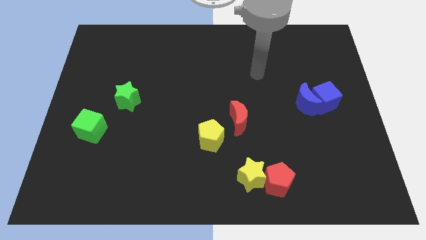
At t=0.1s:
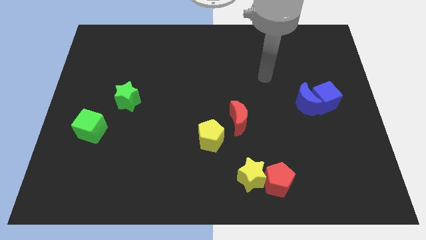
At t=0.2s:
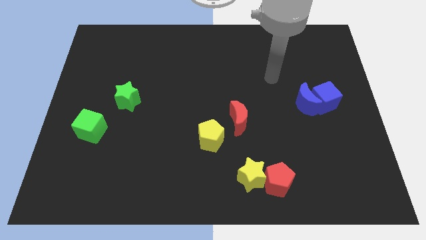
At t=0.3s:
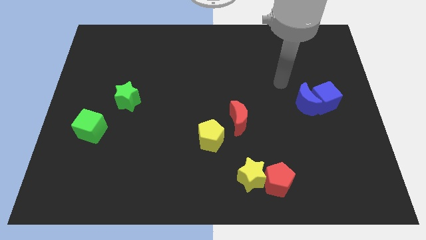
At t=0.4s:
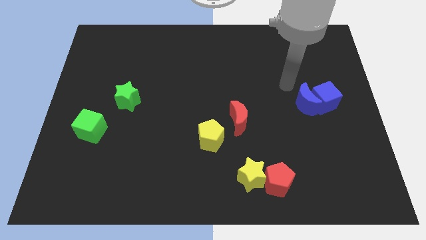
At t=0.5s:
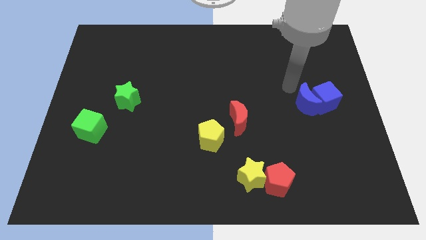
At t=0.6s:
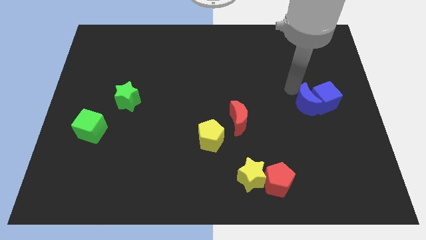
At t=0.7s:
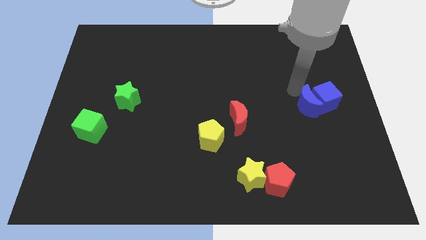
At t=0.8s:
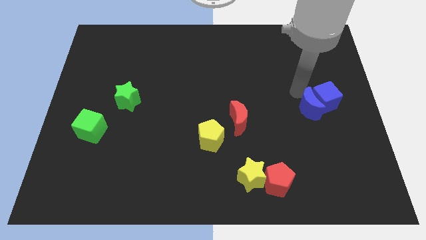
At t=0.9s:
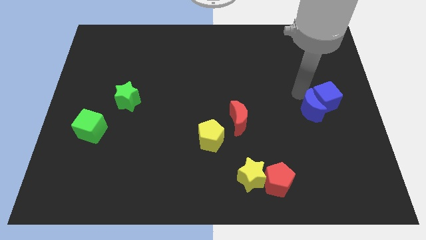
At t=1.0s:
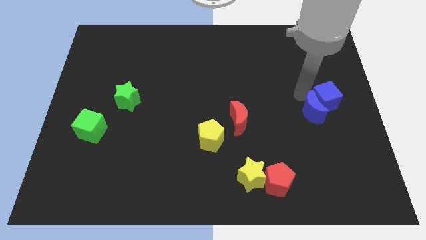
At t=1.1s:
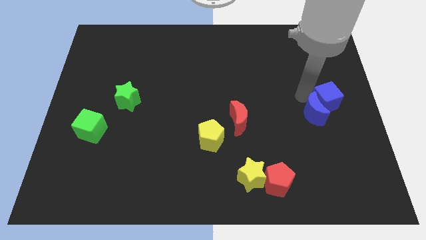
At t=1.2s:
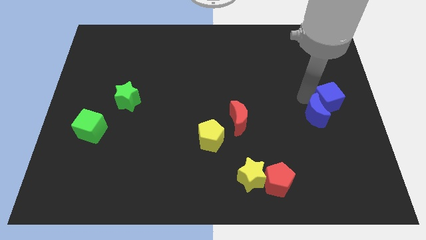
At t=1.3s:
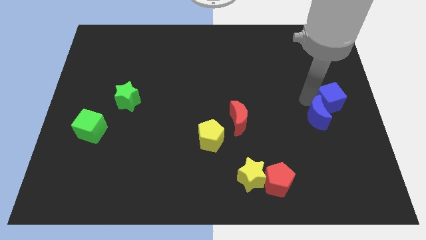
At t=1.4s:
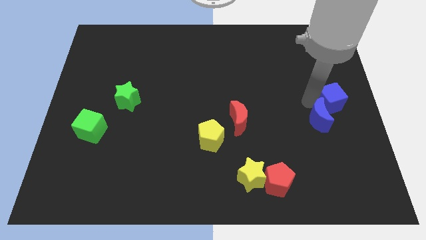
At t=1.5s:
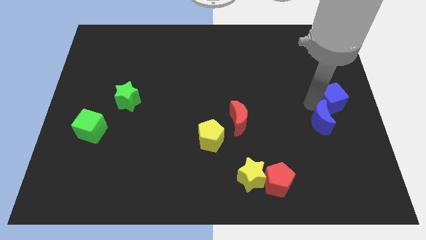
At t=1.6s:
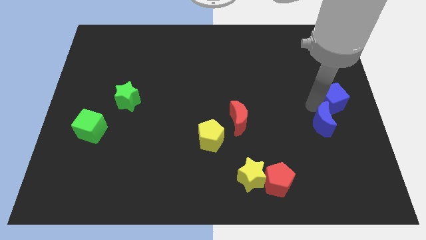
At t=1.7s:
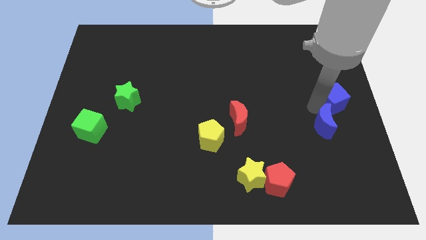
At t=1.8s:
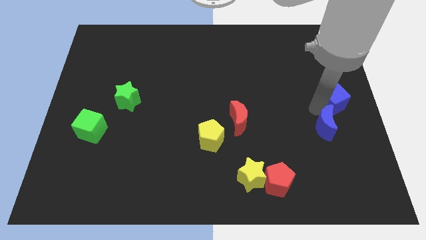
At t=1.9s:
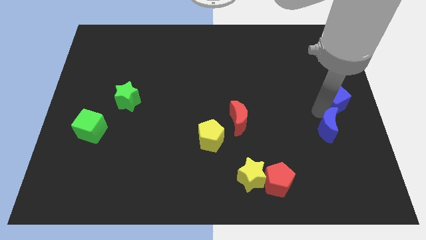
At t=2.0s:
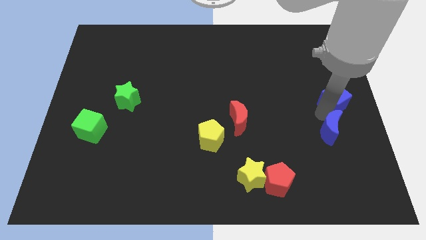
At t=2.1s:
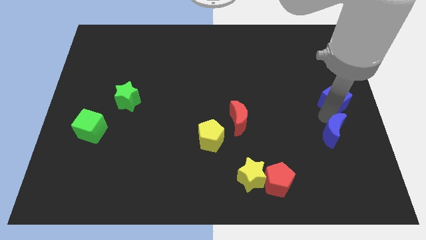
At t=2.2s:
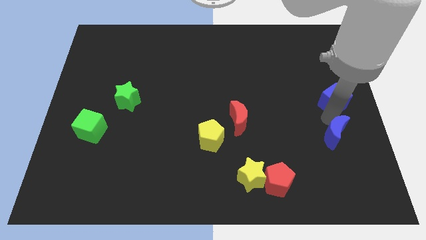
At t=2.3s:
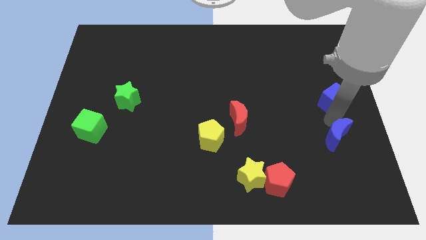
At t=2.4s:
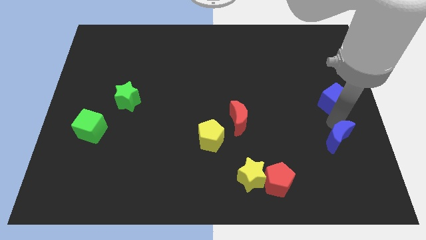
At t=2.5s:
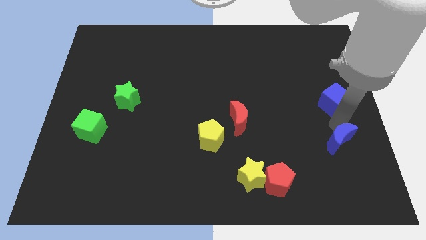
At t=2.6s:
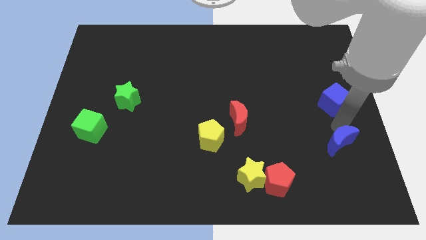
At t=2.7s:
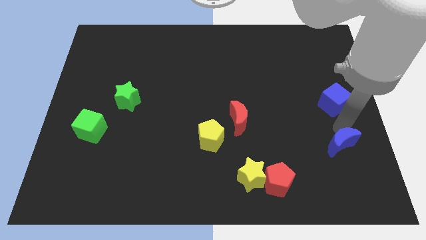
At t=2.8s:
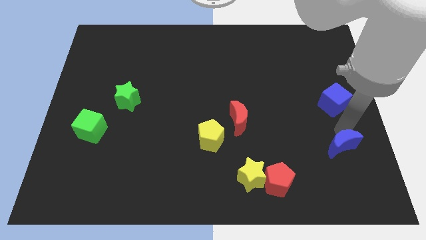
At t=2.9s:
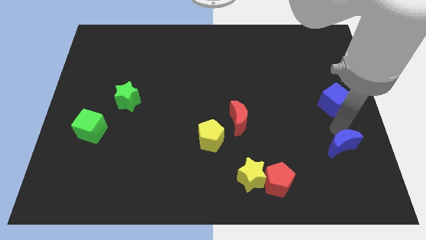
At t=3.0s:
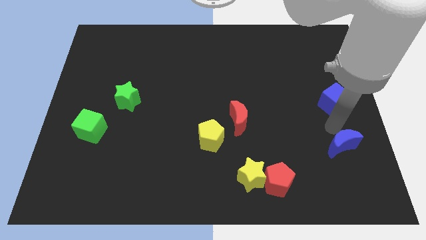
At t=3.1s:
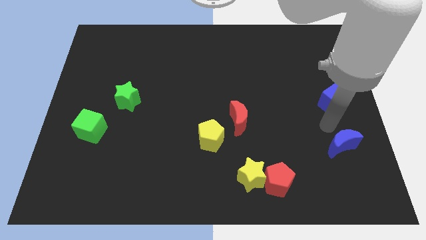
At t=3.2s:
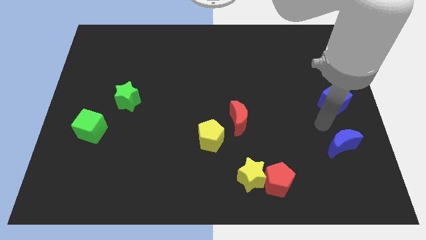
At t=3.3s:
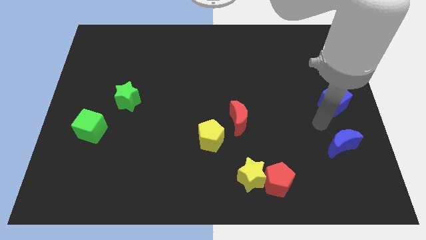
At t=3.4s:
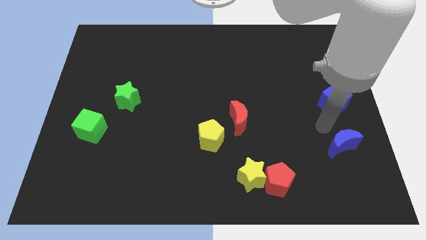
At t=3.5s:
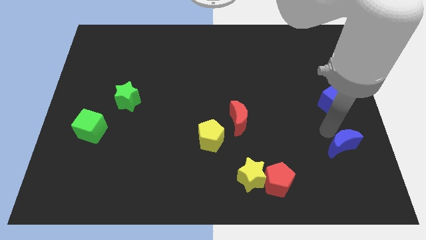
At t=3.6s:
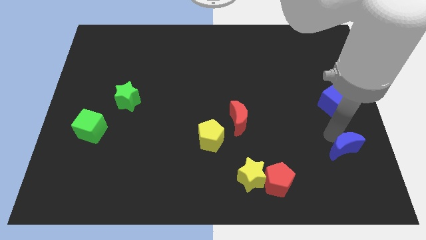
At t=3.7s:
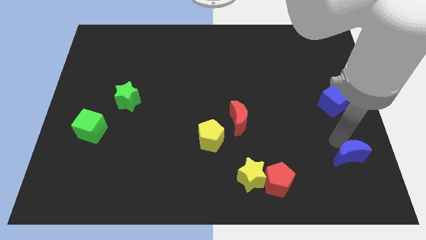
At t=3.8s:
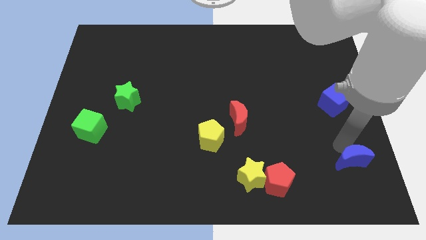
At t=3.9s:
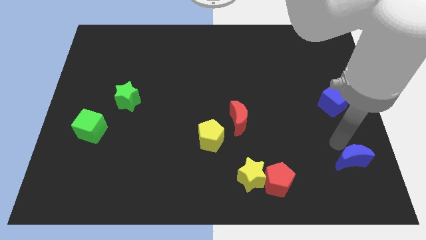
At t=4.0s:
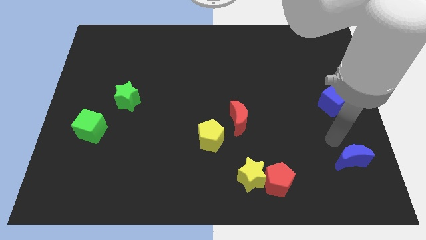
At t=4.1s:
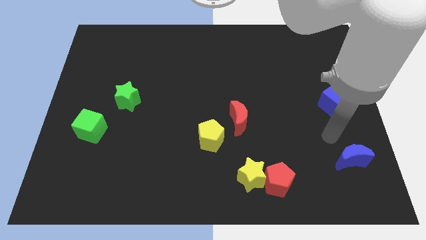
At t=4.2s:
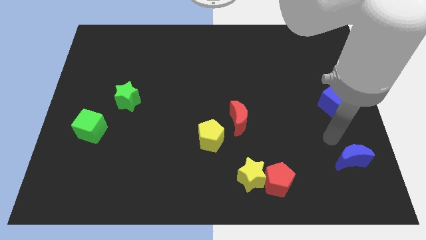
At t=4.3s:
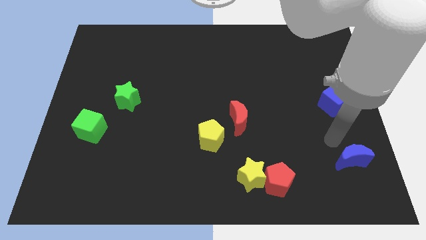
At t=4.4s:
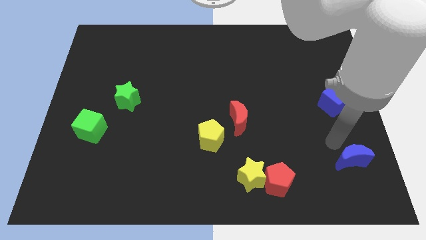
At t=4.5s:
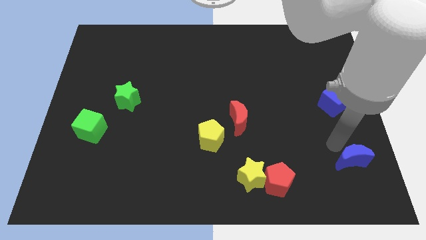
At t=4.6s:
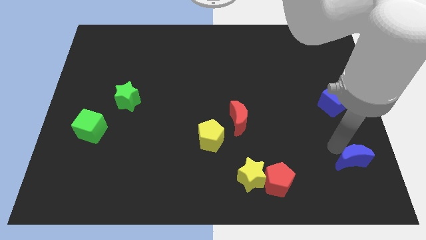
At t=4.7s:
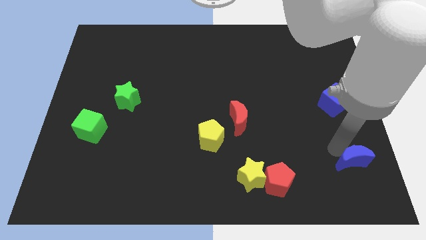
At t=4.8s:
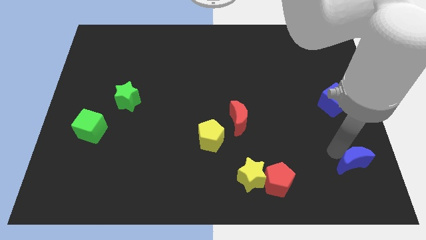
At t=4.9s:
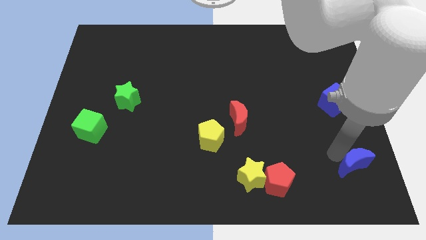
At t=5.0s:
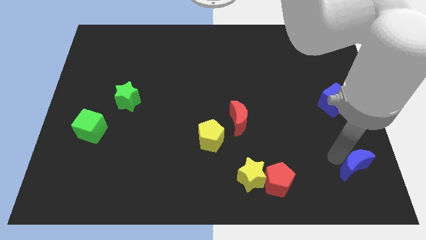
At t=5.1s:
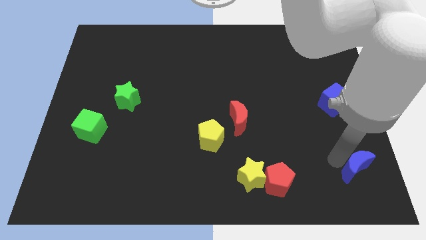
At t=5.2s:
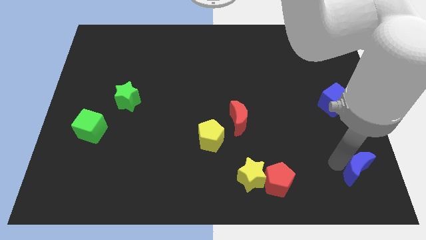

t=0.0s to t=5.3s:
push the blue moon to the lower right corner
